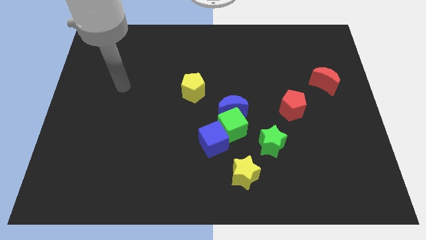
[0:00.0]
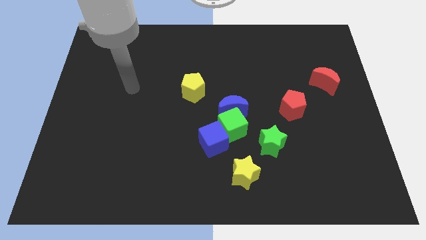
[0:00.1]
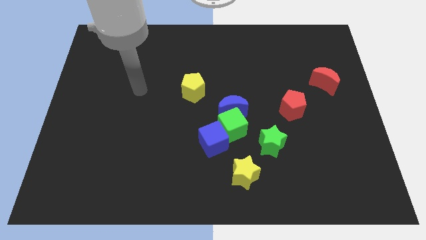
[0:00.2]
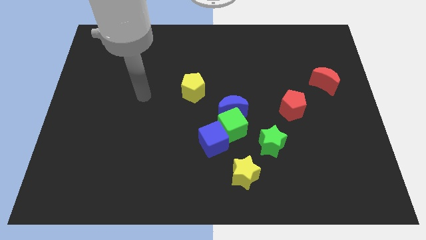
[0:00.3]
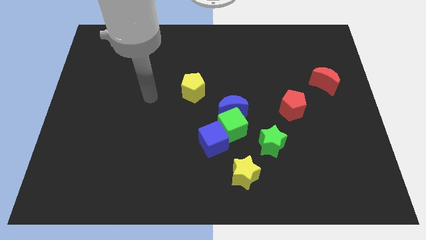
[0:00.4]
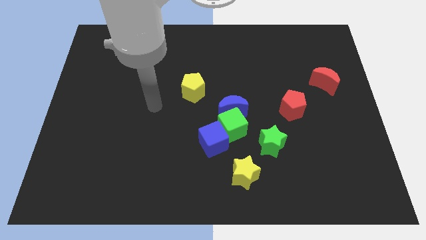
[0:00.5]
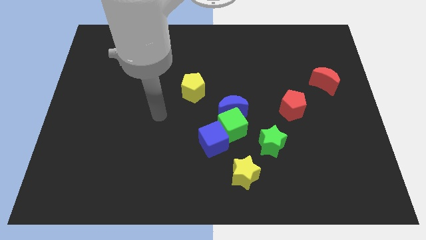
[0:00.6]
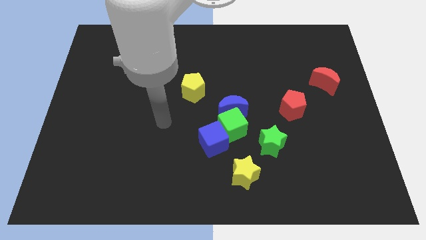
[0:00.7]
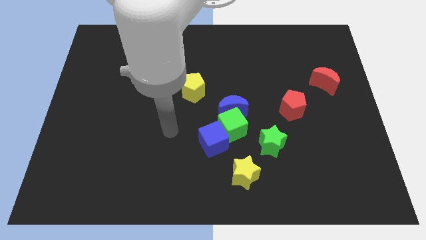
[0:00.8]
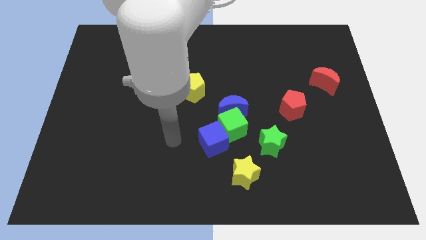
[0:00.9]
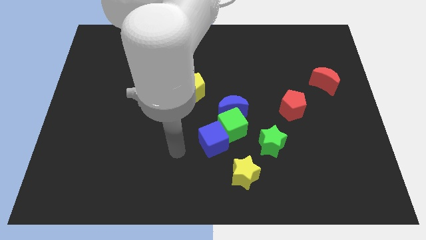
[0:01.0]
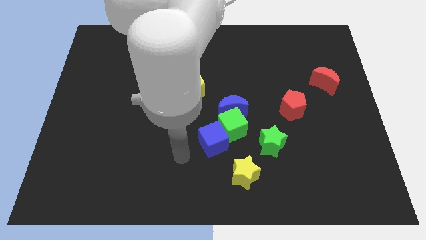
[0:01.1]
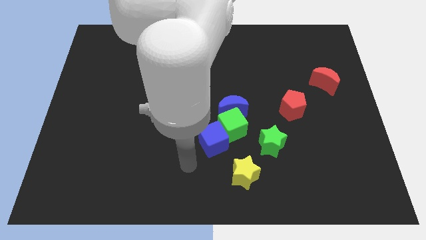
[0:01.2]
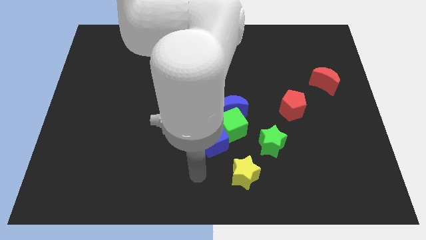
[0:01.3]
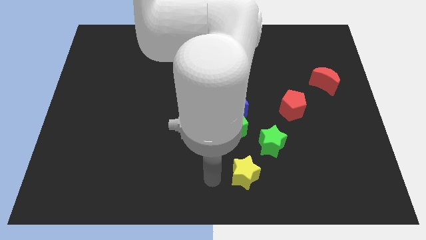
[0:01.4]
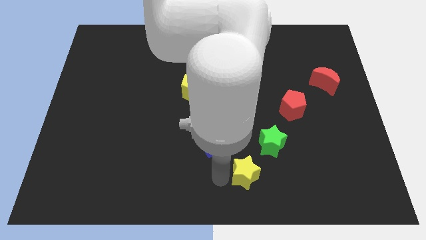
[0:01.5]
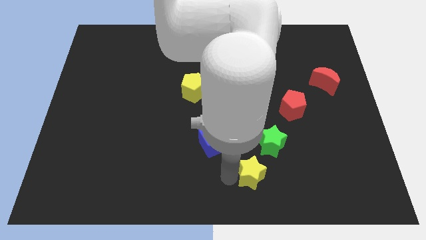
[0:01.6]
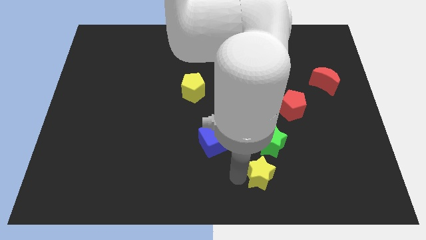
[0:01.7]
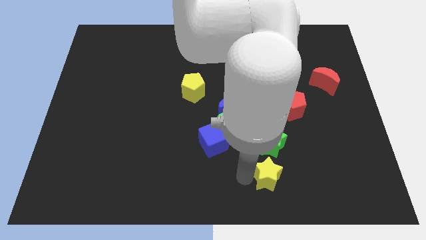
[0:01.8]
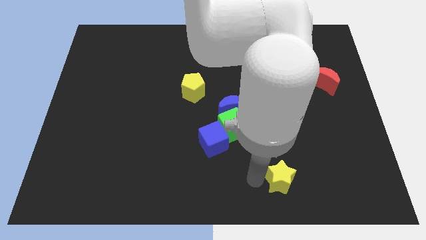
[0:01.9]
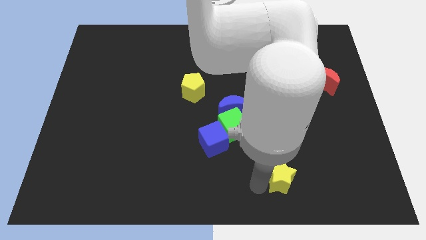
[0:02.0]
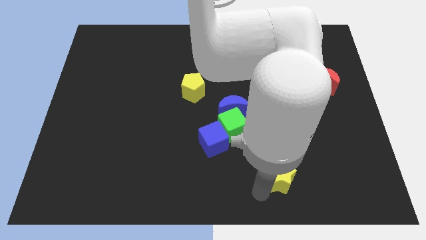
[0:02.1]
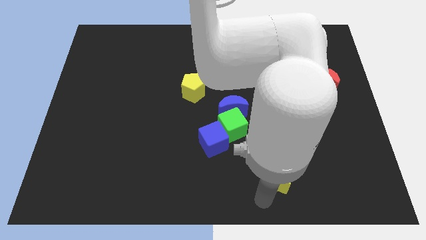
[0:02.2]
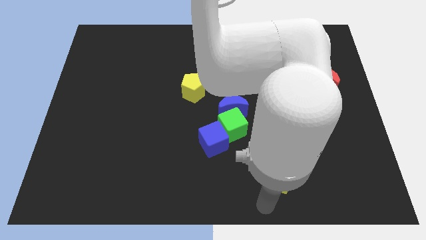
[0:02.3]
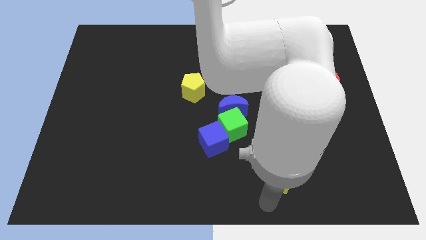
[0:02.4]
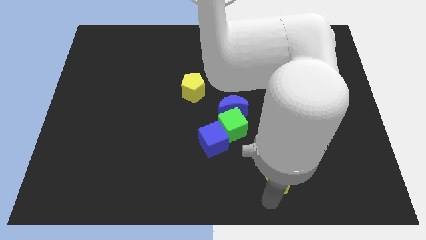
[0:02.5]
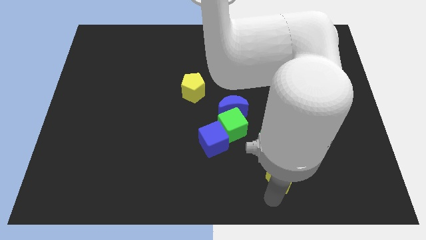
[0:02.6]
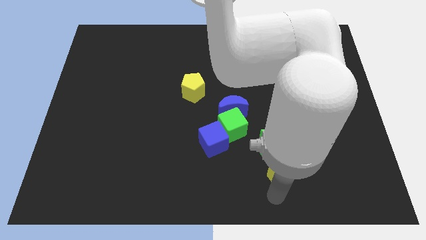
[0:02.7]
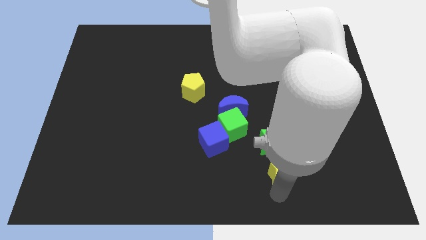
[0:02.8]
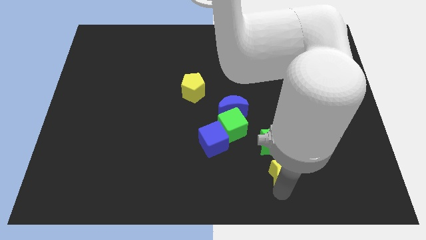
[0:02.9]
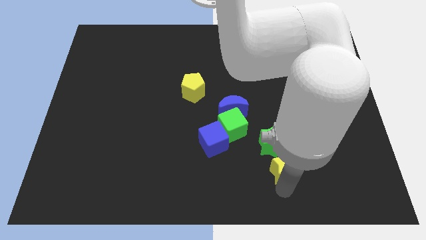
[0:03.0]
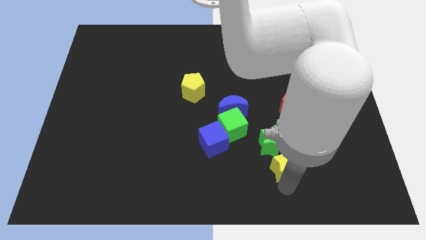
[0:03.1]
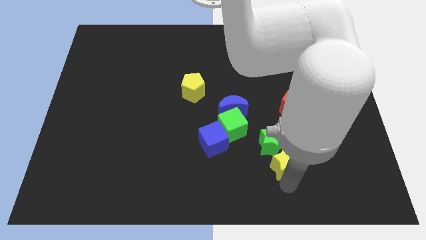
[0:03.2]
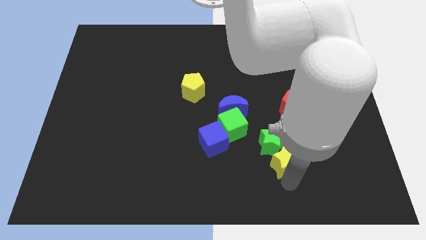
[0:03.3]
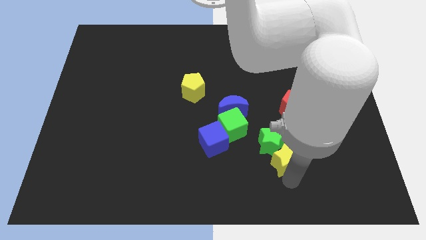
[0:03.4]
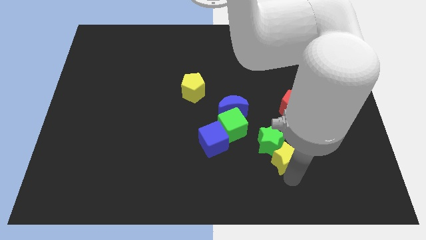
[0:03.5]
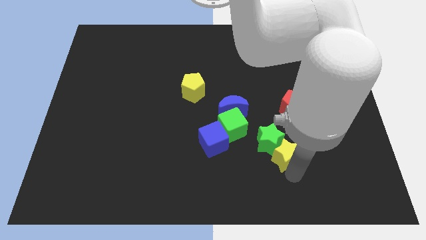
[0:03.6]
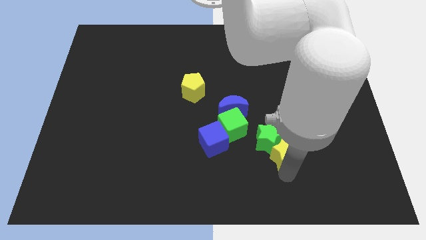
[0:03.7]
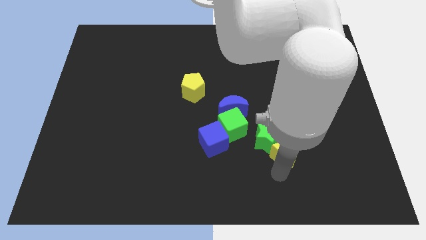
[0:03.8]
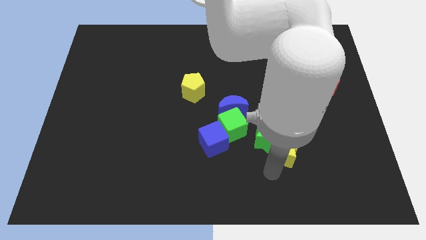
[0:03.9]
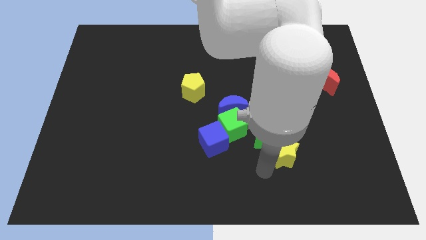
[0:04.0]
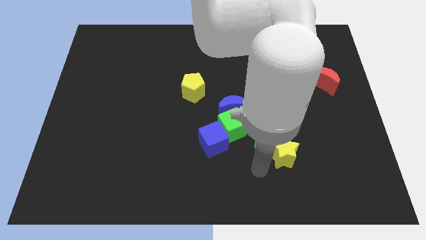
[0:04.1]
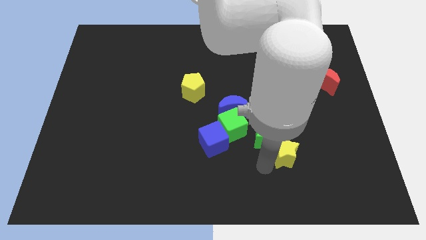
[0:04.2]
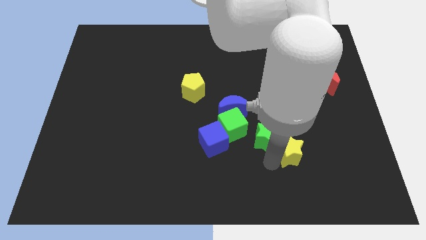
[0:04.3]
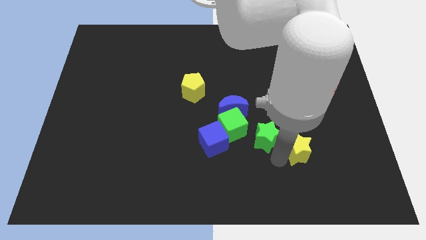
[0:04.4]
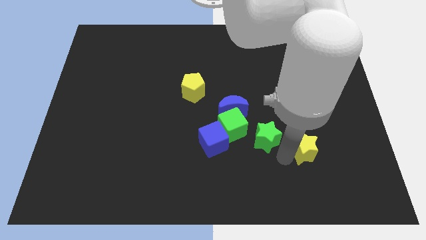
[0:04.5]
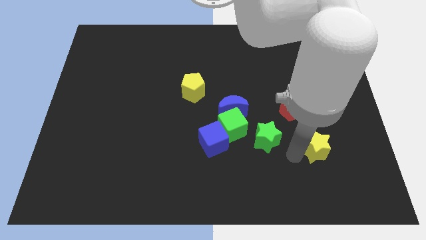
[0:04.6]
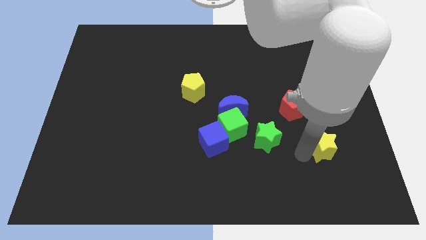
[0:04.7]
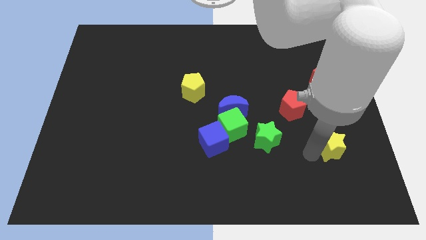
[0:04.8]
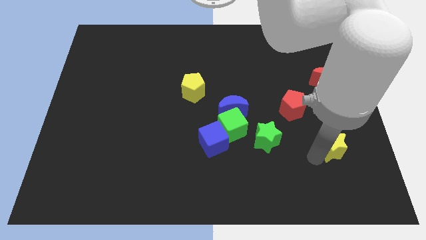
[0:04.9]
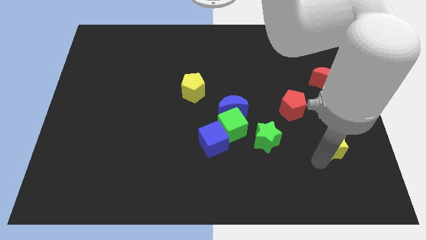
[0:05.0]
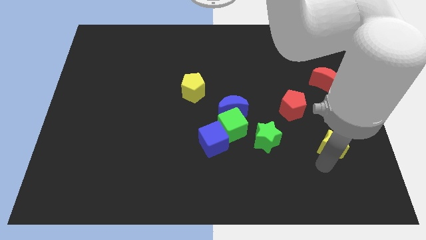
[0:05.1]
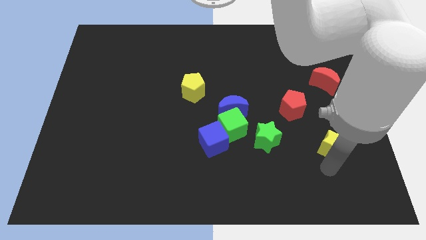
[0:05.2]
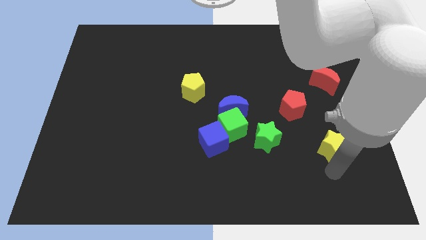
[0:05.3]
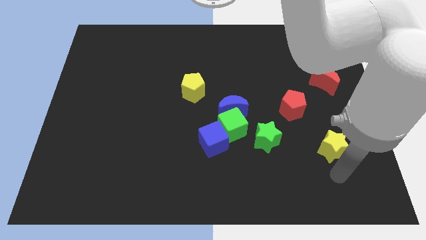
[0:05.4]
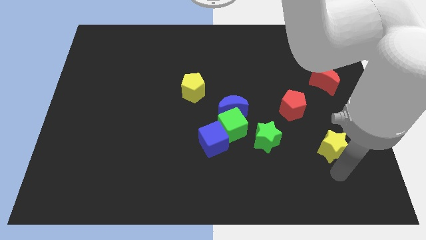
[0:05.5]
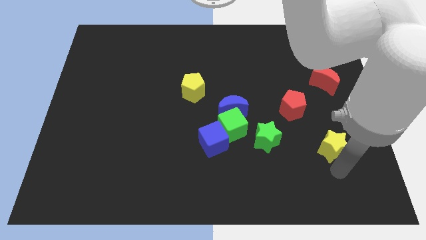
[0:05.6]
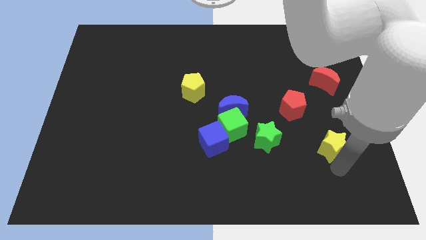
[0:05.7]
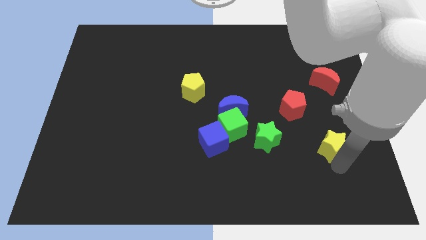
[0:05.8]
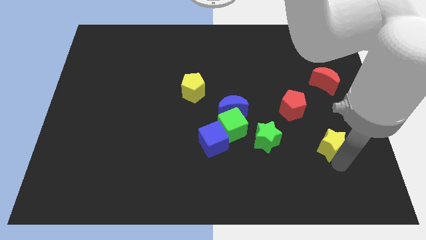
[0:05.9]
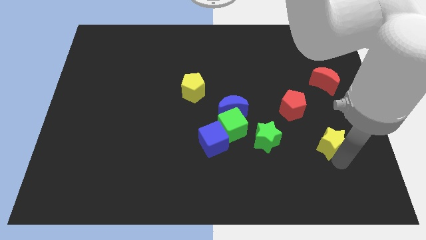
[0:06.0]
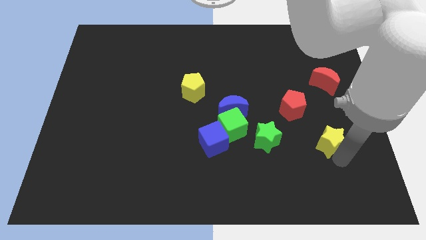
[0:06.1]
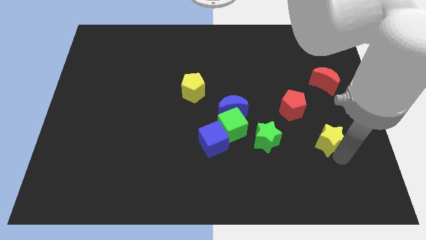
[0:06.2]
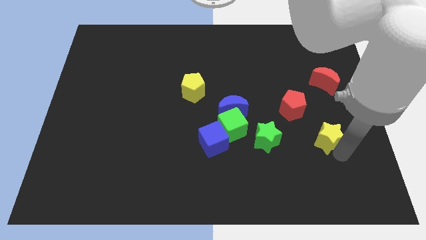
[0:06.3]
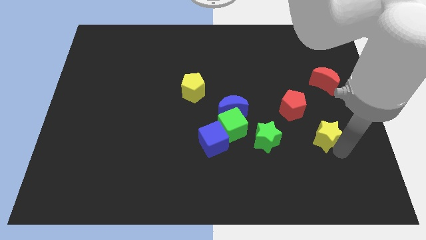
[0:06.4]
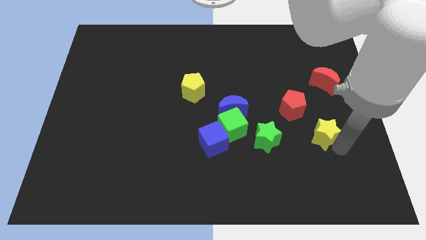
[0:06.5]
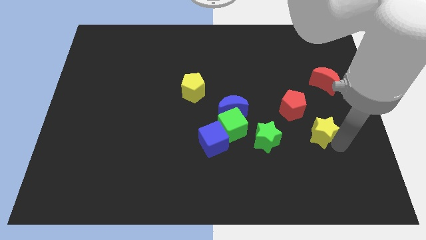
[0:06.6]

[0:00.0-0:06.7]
put the yellow star to the bottom side of the red moon
